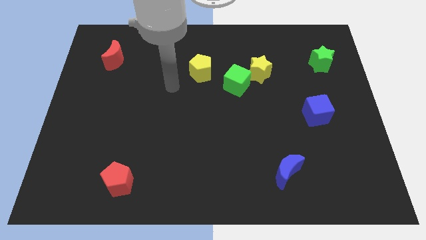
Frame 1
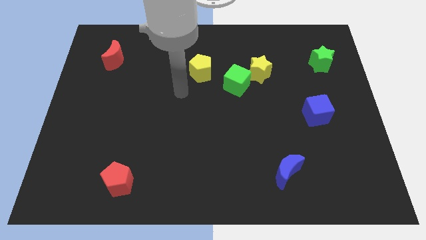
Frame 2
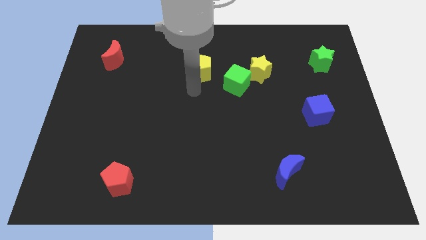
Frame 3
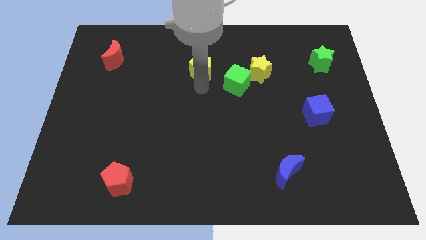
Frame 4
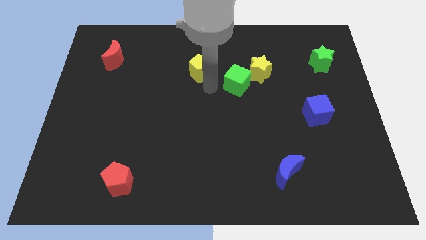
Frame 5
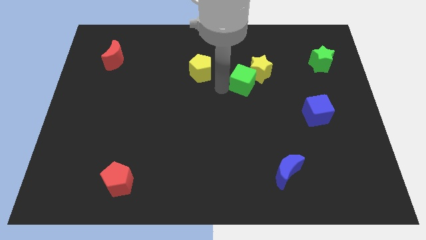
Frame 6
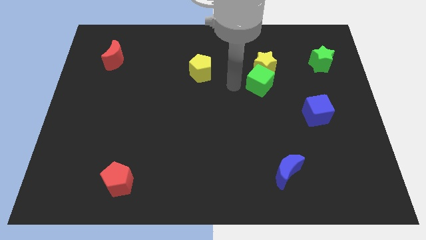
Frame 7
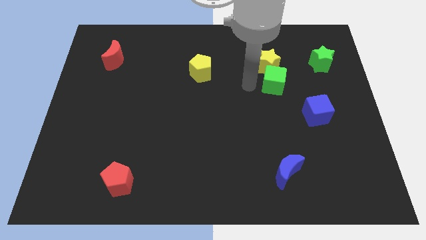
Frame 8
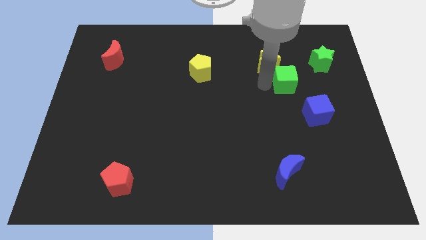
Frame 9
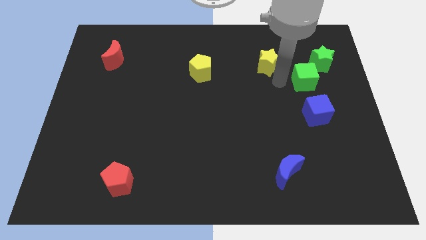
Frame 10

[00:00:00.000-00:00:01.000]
move the yellow star away from the green cube

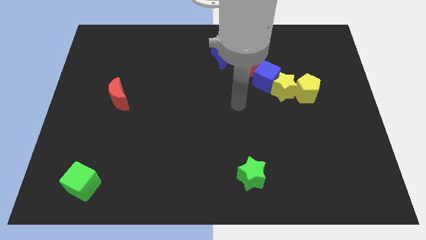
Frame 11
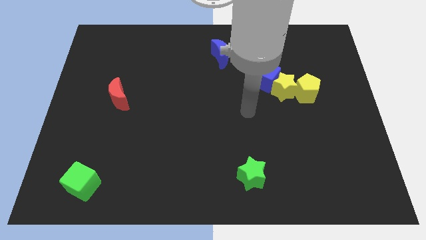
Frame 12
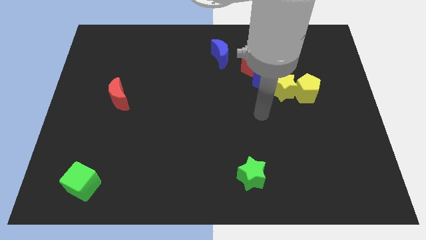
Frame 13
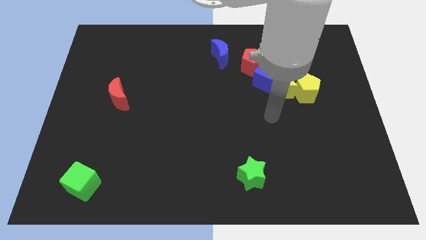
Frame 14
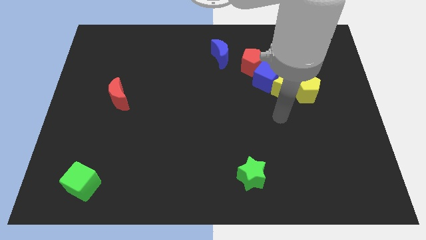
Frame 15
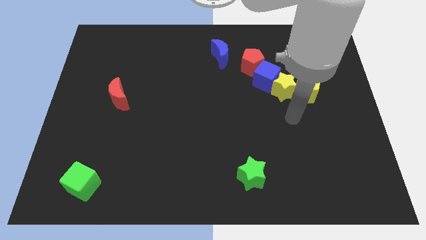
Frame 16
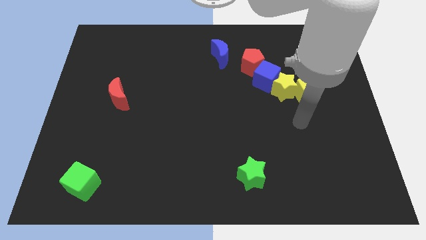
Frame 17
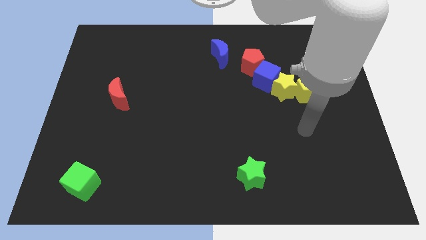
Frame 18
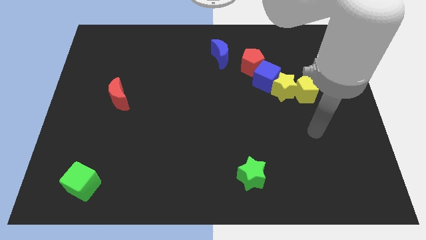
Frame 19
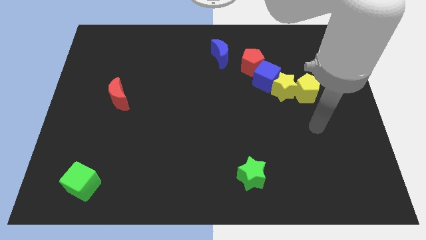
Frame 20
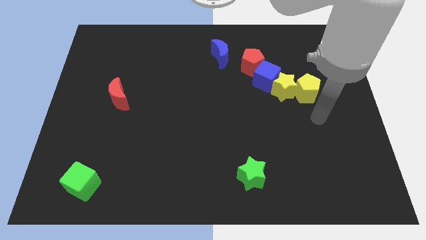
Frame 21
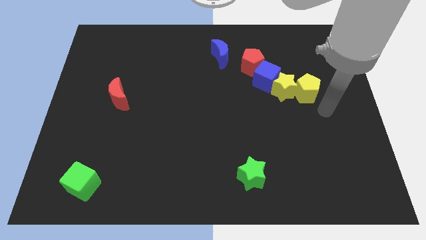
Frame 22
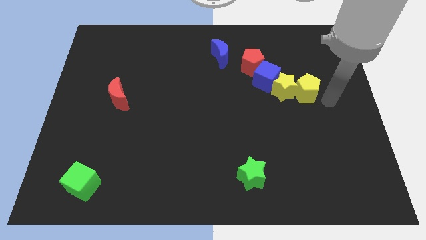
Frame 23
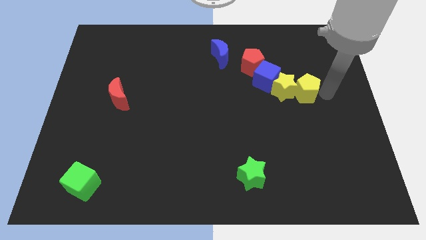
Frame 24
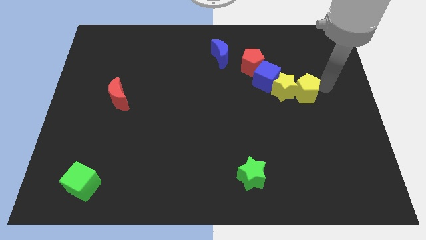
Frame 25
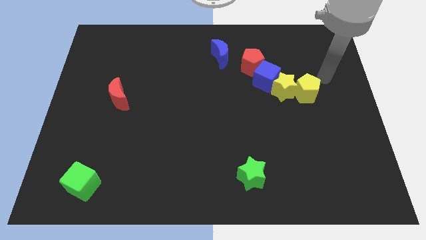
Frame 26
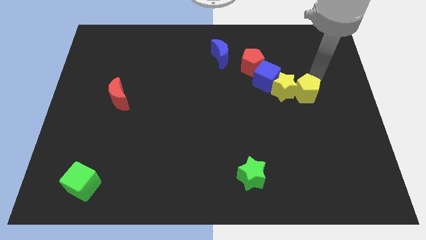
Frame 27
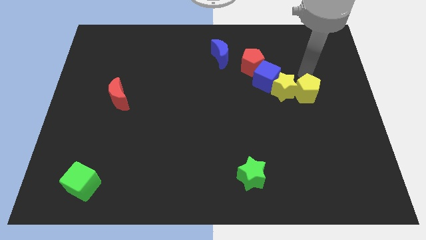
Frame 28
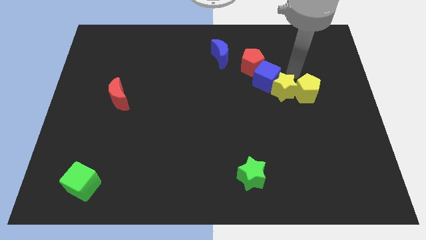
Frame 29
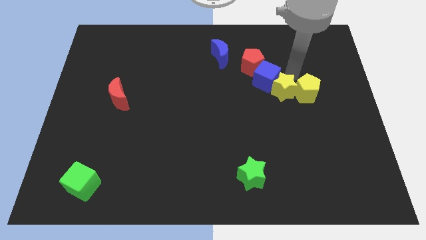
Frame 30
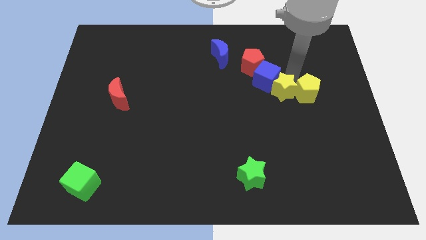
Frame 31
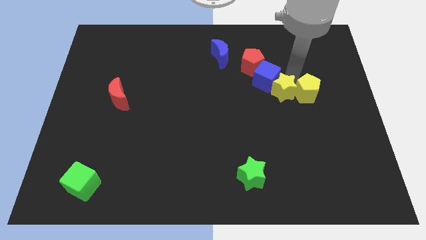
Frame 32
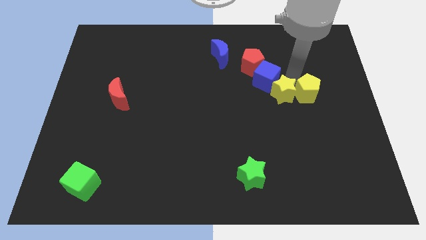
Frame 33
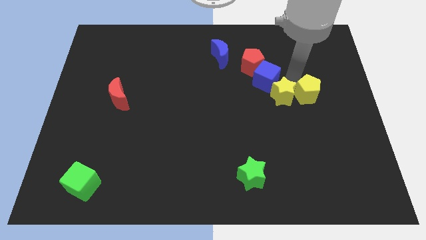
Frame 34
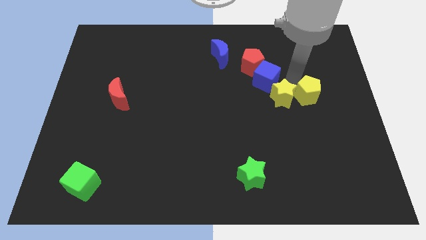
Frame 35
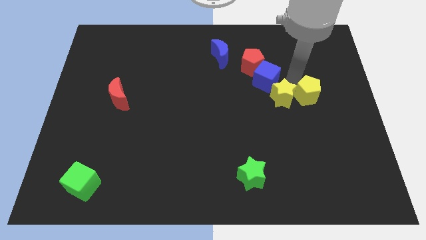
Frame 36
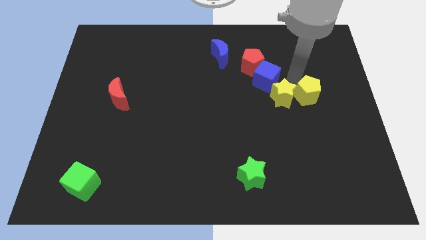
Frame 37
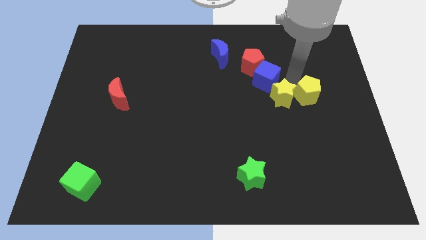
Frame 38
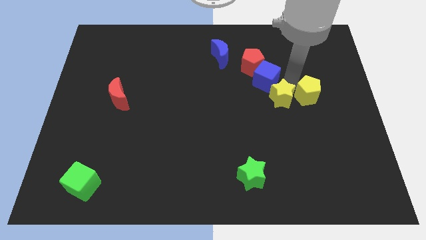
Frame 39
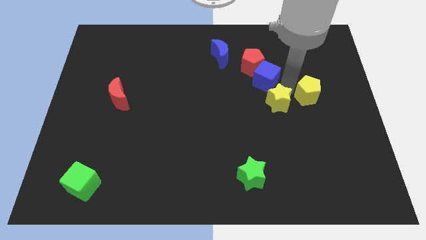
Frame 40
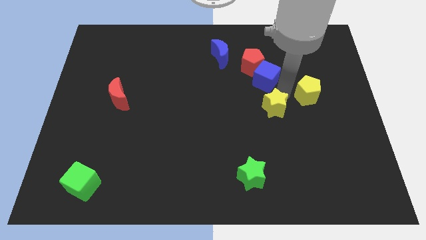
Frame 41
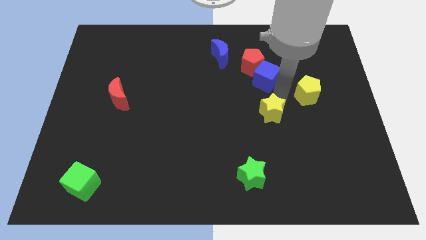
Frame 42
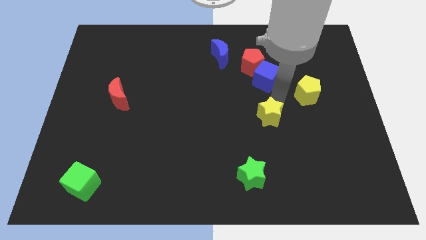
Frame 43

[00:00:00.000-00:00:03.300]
separate the yellow star from the blue cube and yellow pentagon

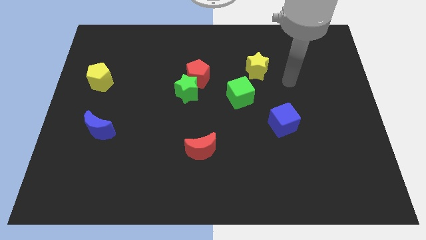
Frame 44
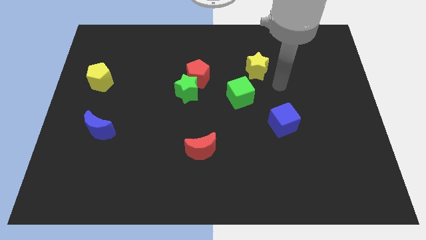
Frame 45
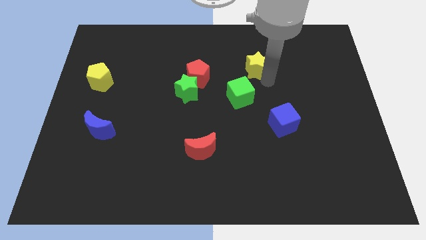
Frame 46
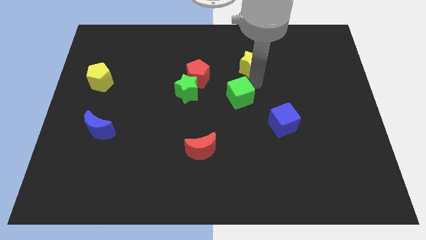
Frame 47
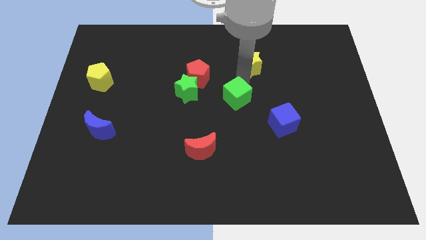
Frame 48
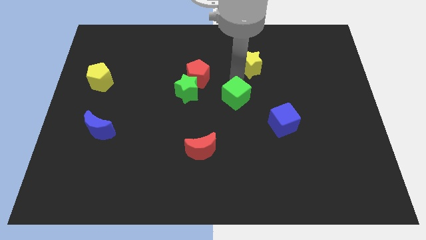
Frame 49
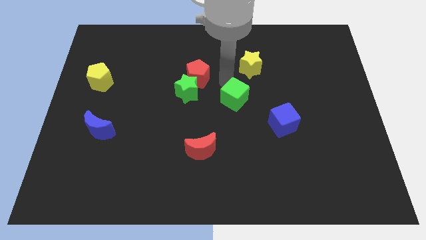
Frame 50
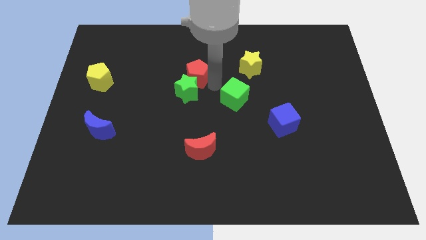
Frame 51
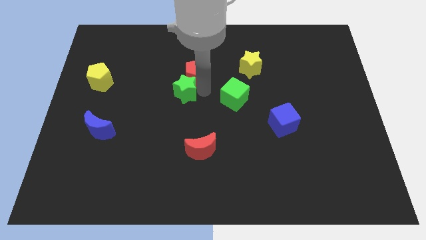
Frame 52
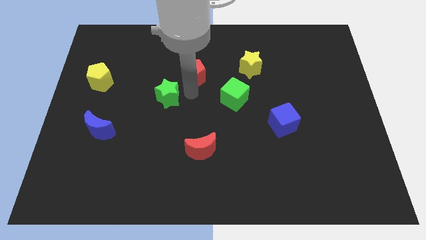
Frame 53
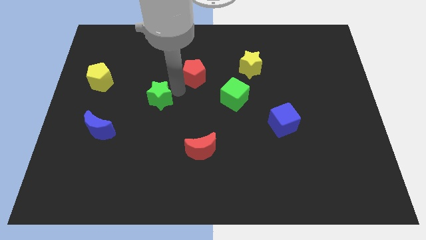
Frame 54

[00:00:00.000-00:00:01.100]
separate the red pentagon from the green star

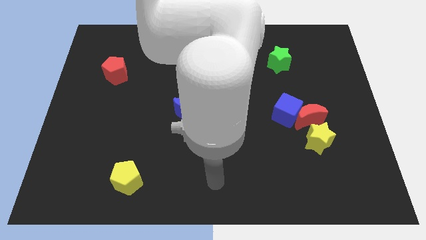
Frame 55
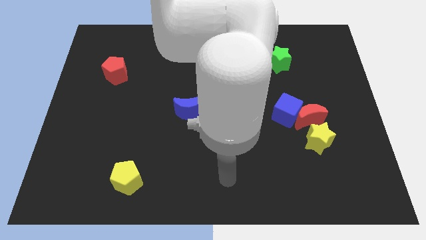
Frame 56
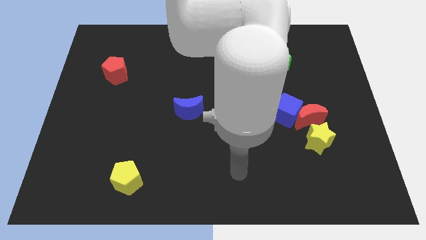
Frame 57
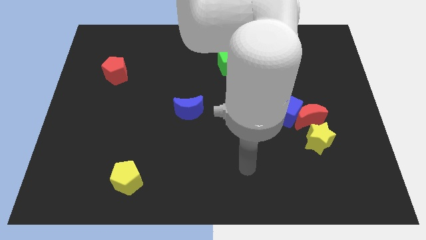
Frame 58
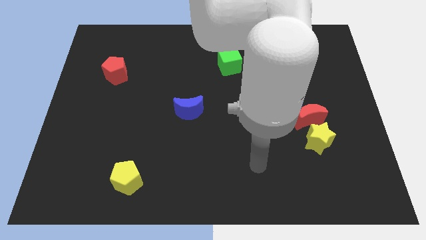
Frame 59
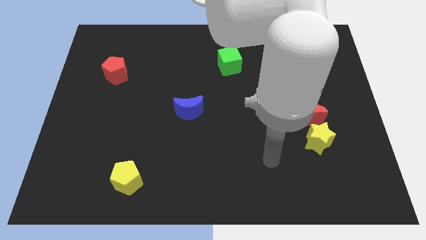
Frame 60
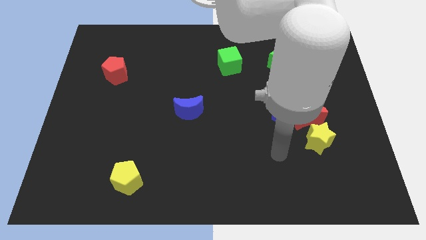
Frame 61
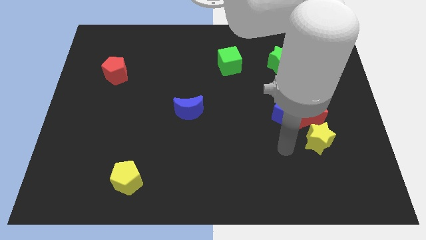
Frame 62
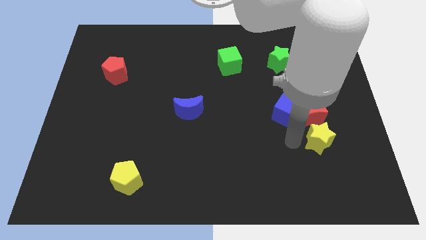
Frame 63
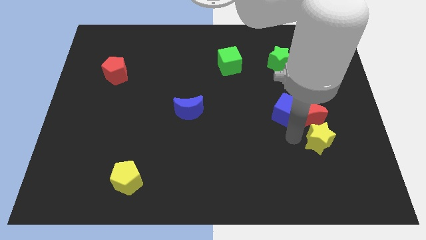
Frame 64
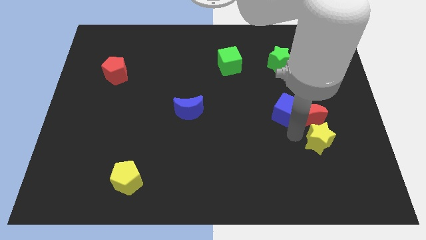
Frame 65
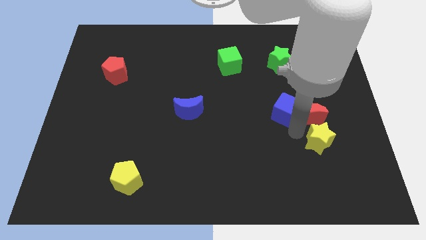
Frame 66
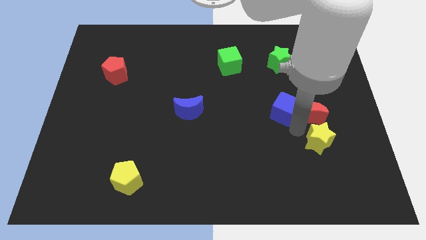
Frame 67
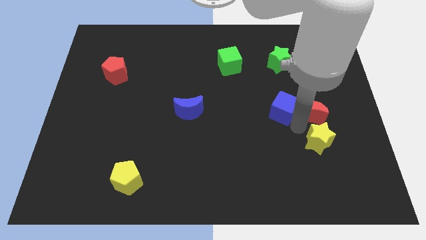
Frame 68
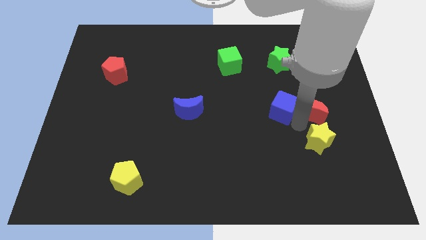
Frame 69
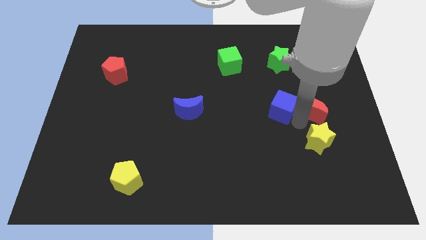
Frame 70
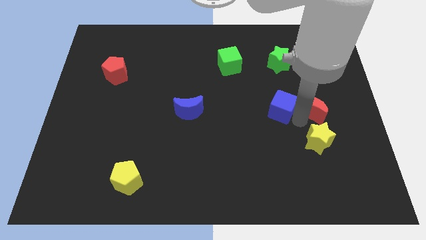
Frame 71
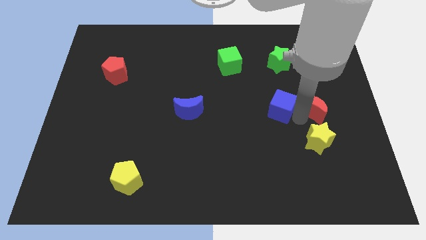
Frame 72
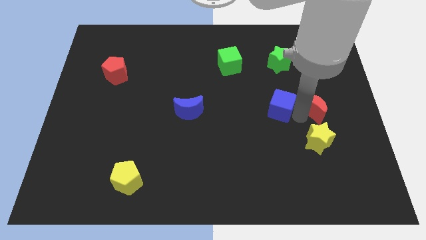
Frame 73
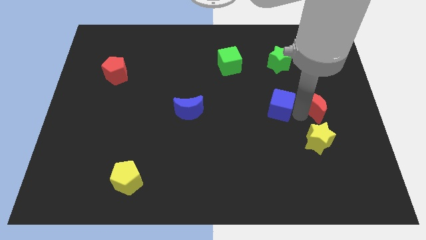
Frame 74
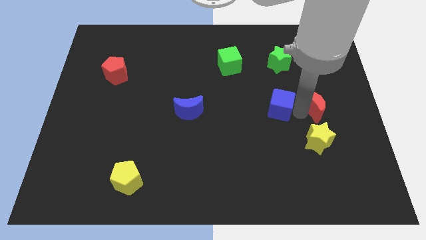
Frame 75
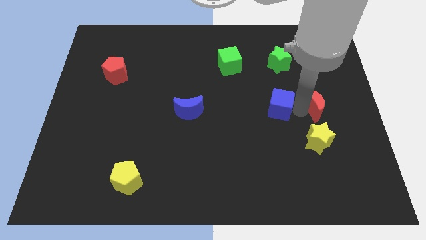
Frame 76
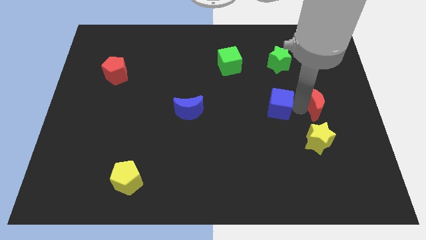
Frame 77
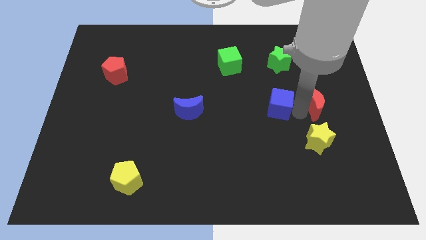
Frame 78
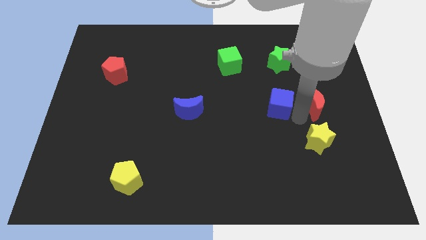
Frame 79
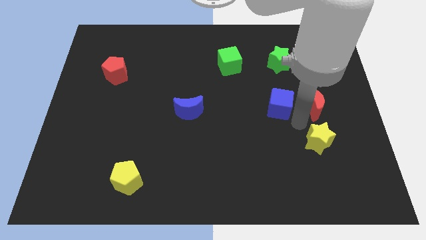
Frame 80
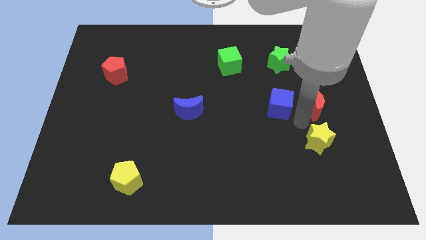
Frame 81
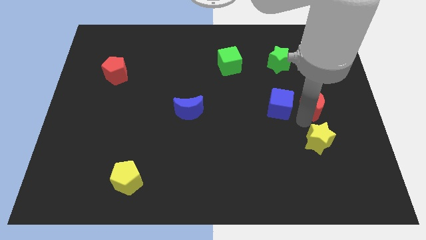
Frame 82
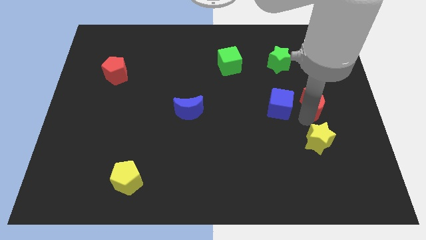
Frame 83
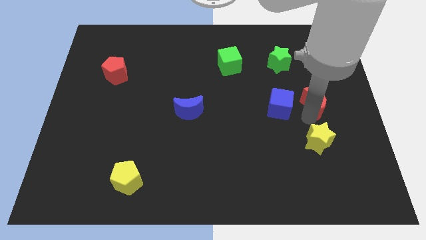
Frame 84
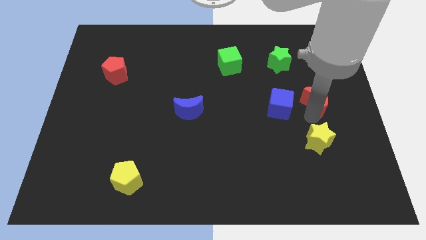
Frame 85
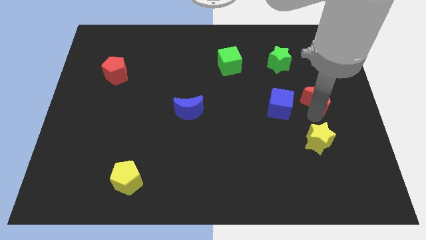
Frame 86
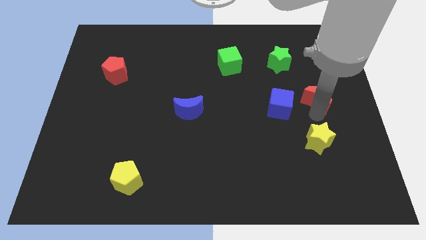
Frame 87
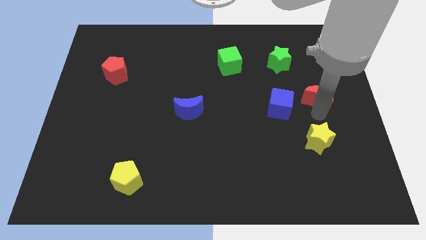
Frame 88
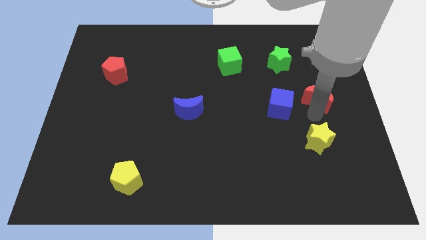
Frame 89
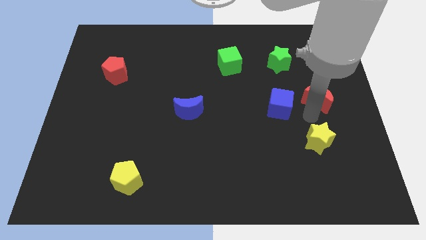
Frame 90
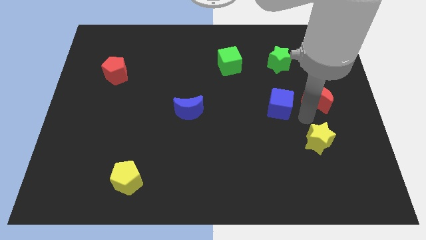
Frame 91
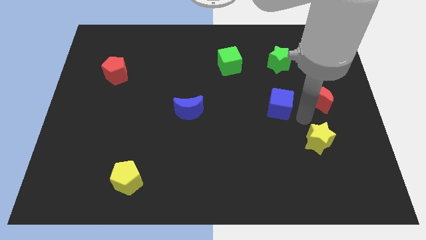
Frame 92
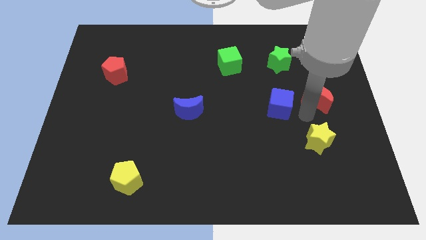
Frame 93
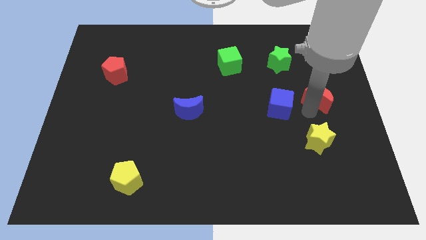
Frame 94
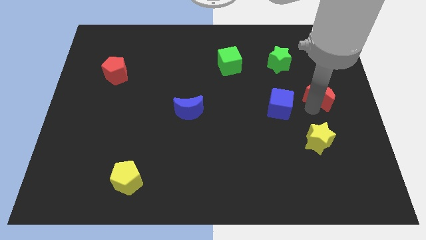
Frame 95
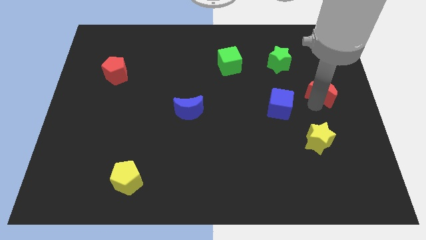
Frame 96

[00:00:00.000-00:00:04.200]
separate the red moon from the blue cube and yellow star

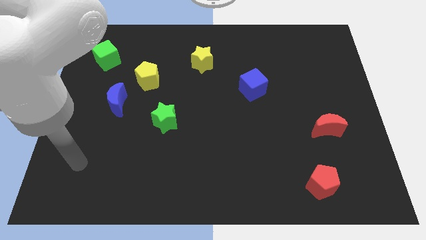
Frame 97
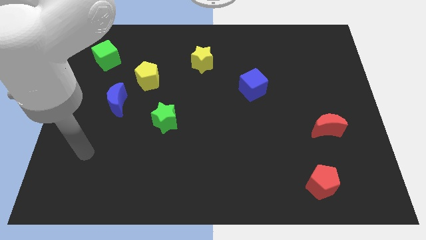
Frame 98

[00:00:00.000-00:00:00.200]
move the blue moon away from the yellow pentagon
